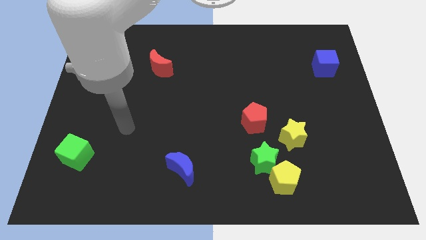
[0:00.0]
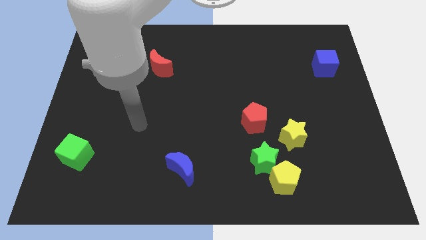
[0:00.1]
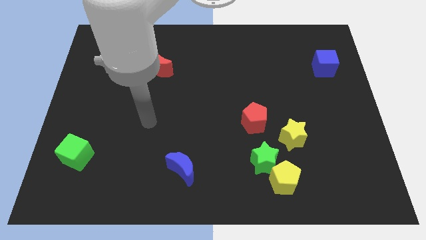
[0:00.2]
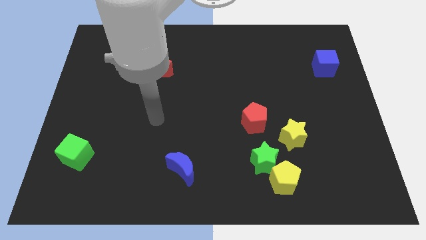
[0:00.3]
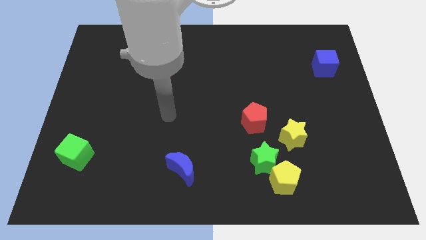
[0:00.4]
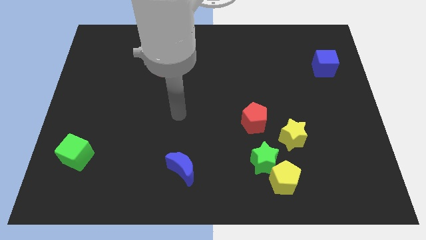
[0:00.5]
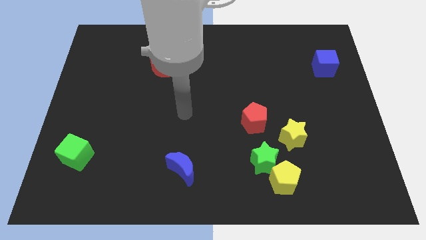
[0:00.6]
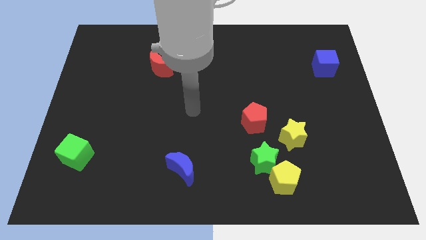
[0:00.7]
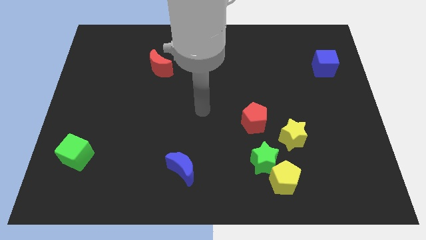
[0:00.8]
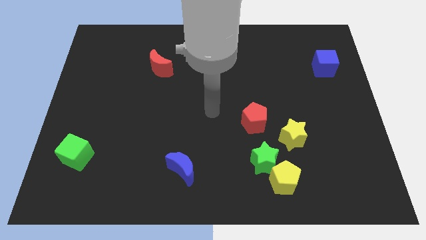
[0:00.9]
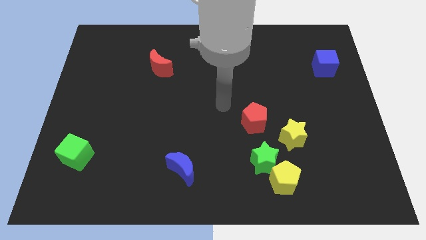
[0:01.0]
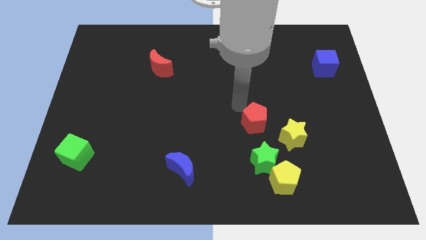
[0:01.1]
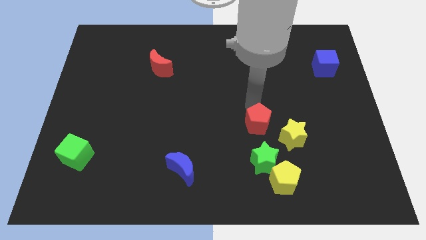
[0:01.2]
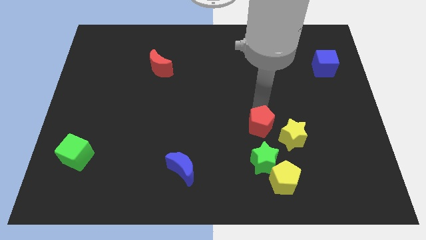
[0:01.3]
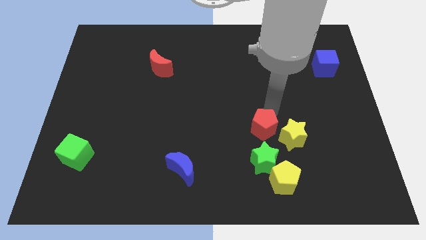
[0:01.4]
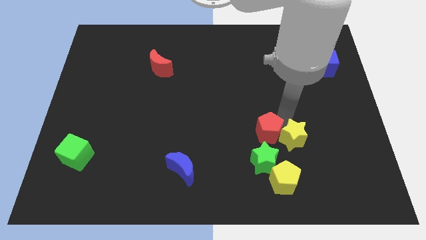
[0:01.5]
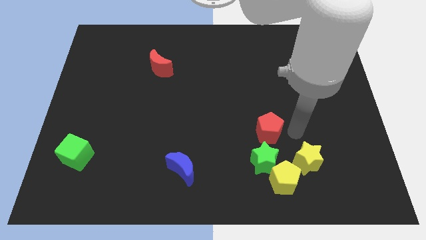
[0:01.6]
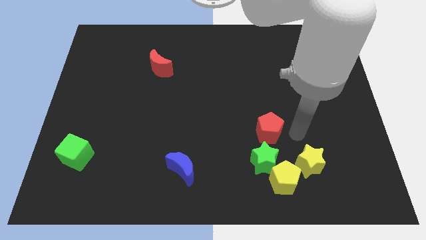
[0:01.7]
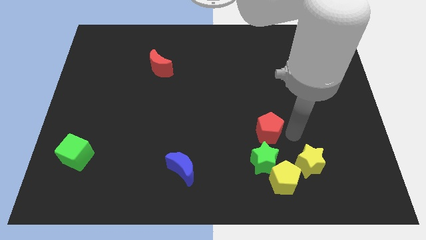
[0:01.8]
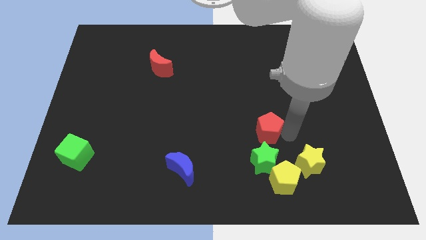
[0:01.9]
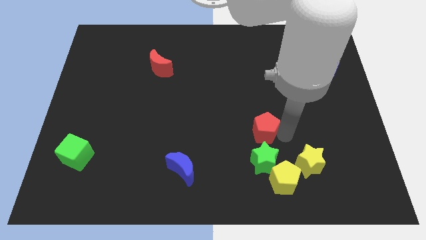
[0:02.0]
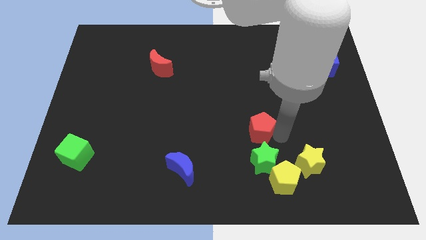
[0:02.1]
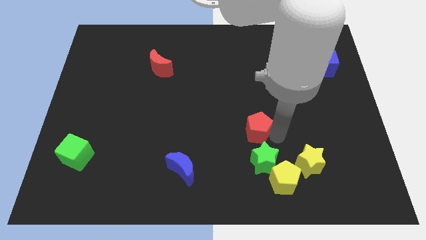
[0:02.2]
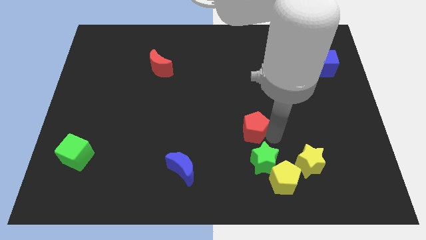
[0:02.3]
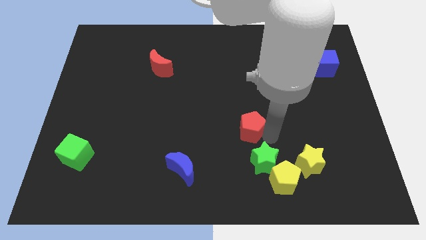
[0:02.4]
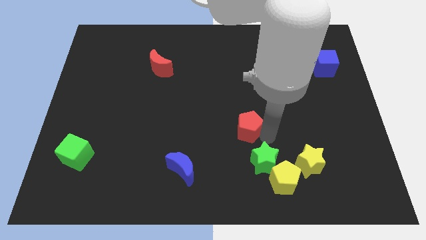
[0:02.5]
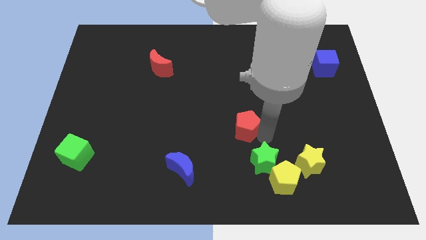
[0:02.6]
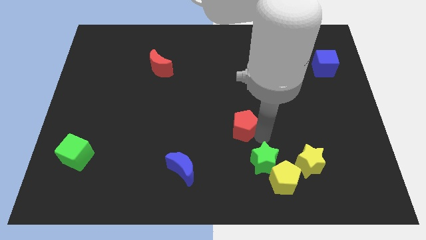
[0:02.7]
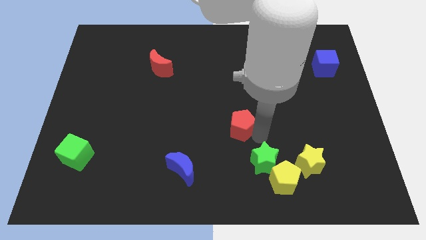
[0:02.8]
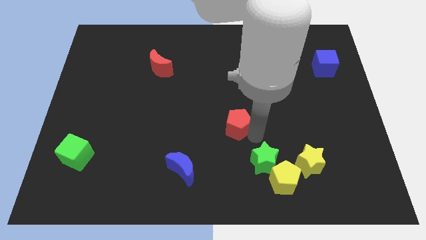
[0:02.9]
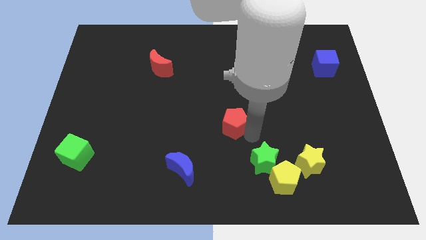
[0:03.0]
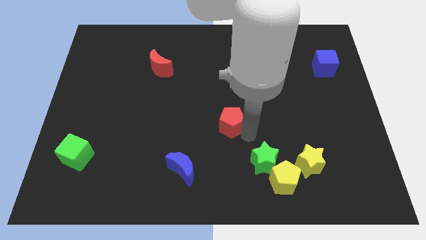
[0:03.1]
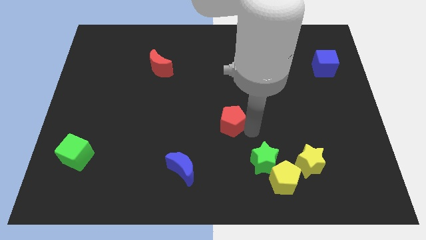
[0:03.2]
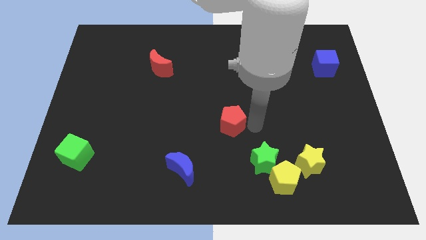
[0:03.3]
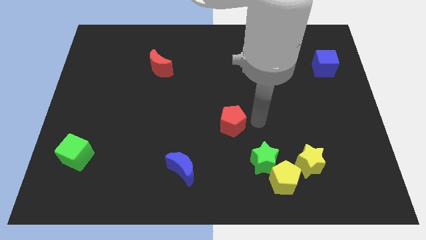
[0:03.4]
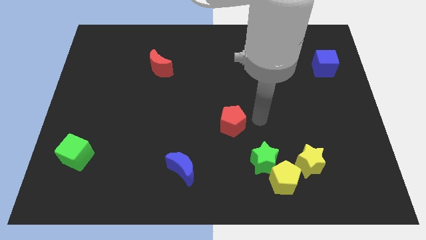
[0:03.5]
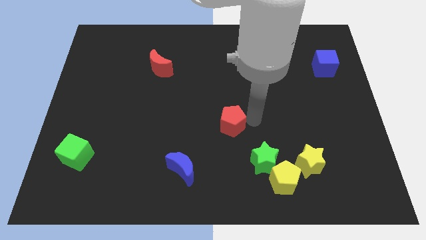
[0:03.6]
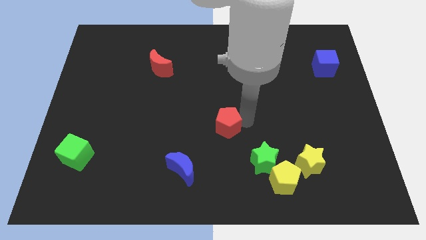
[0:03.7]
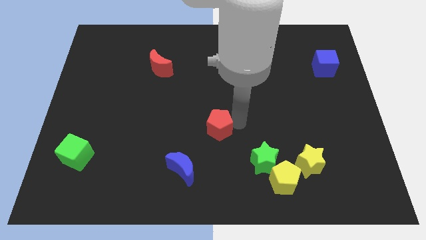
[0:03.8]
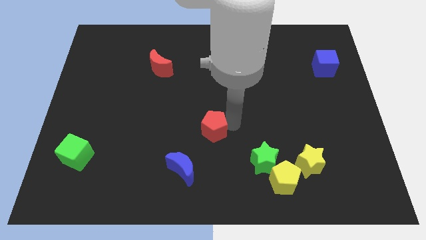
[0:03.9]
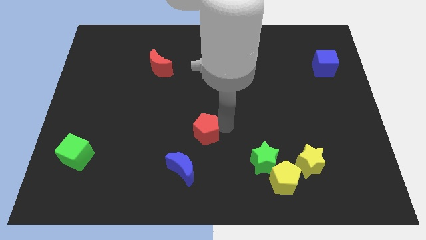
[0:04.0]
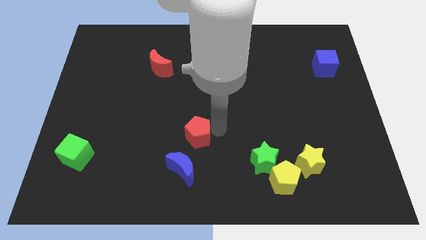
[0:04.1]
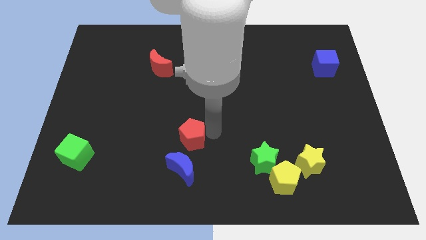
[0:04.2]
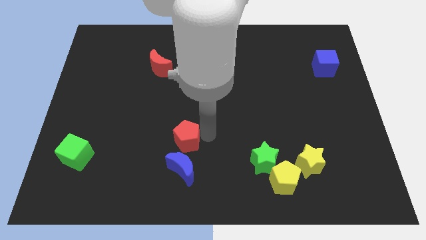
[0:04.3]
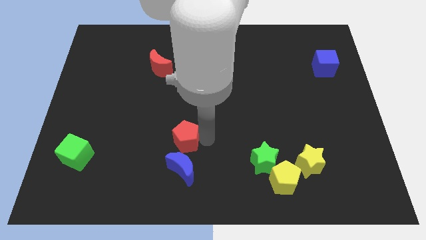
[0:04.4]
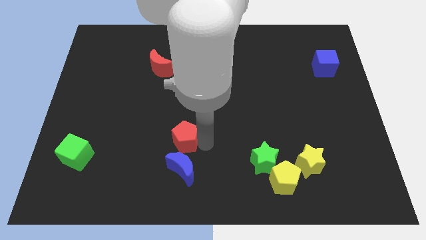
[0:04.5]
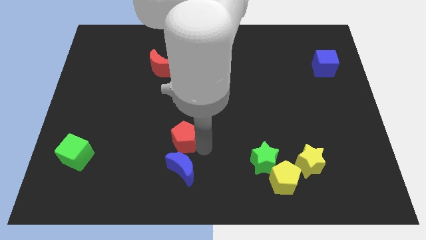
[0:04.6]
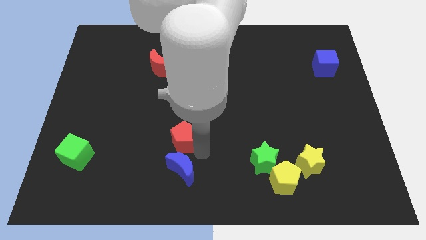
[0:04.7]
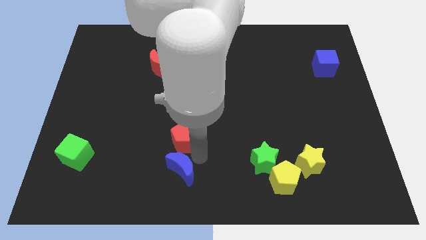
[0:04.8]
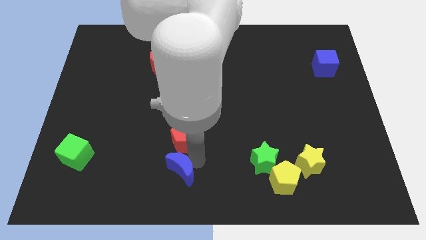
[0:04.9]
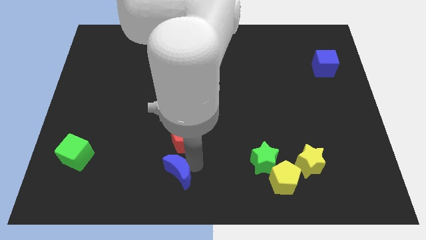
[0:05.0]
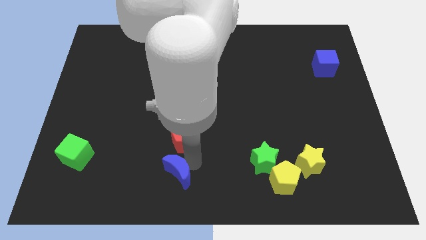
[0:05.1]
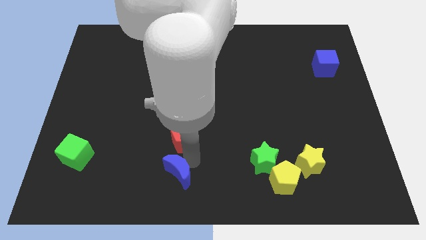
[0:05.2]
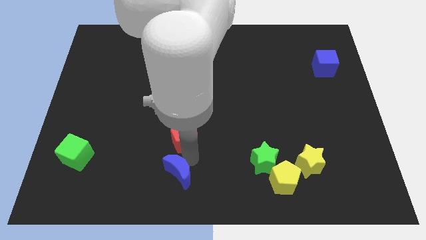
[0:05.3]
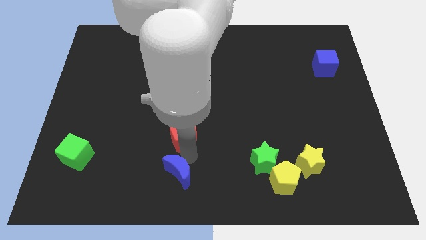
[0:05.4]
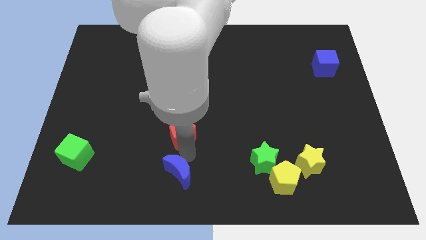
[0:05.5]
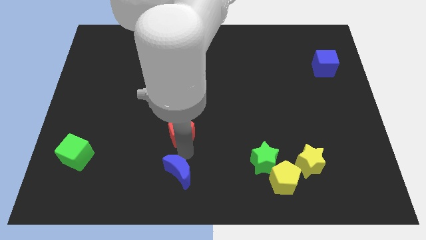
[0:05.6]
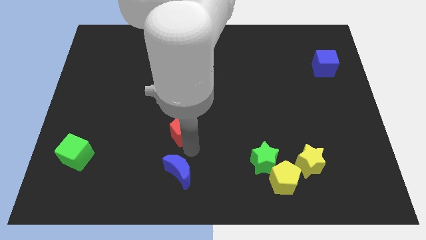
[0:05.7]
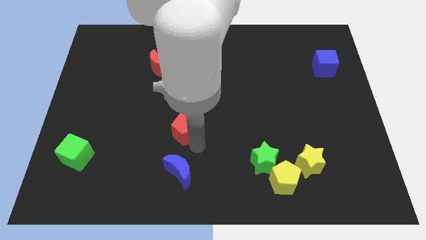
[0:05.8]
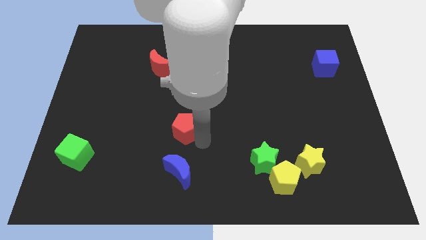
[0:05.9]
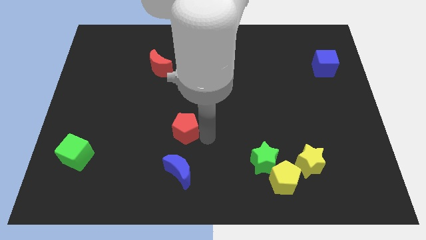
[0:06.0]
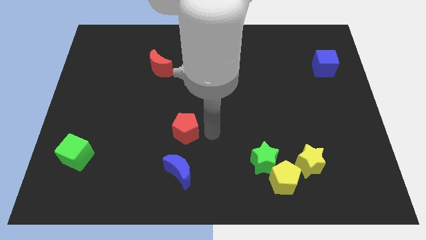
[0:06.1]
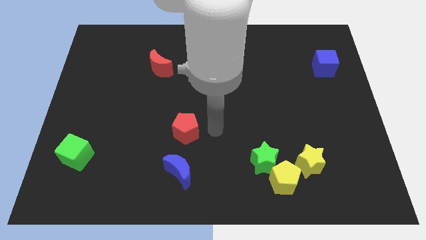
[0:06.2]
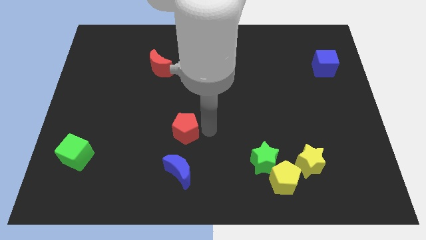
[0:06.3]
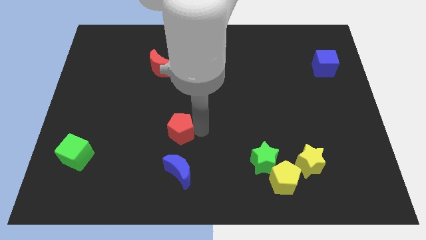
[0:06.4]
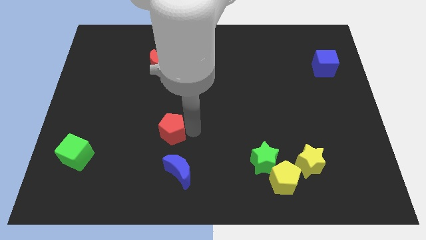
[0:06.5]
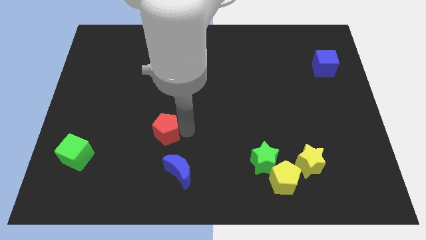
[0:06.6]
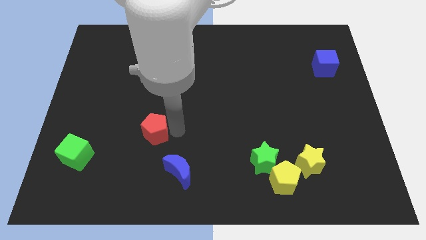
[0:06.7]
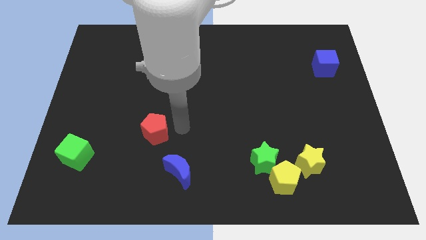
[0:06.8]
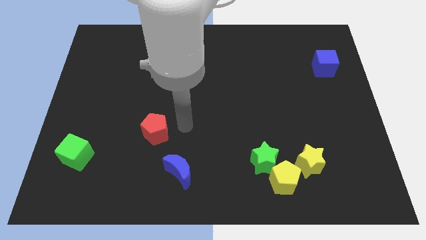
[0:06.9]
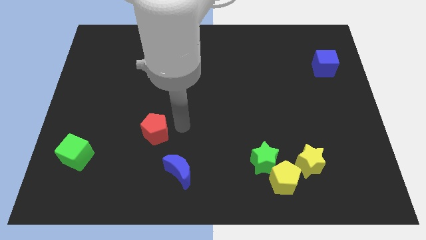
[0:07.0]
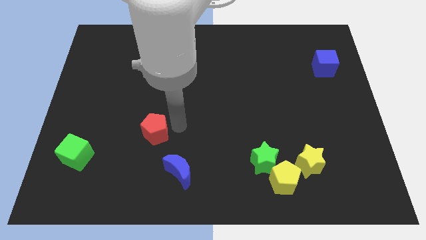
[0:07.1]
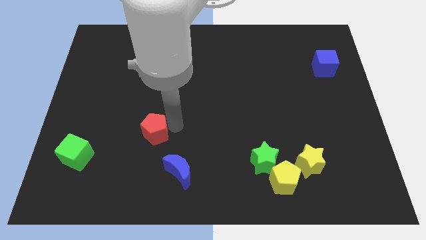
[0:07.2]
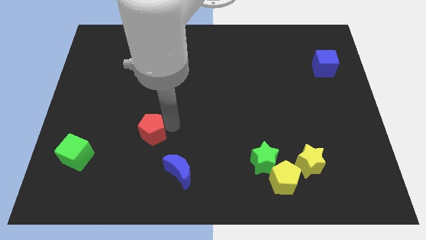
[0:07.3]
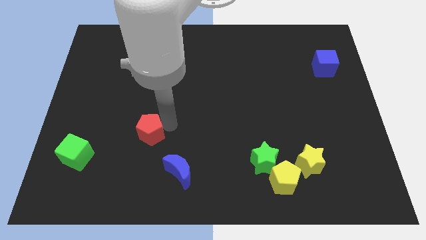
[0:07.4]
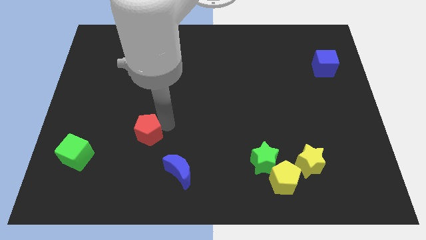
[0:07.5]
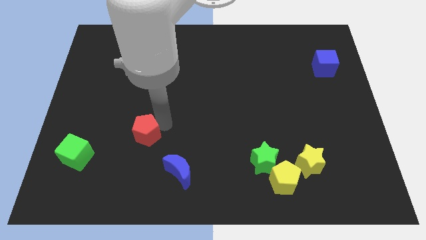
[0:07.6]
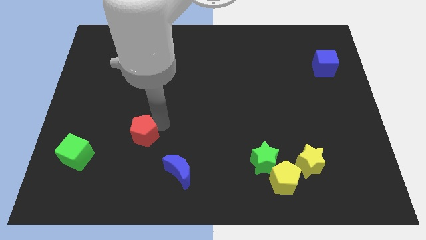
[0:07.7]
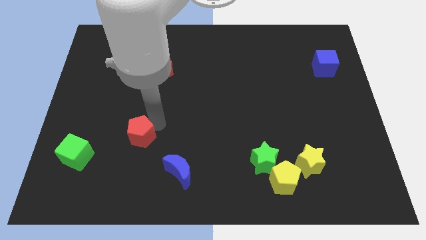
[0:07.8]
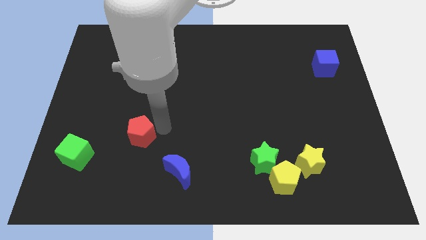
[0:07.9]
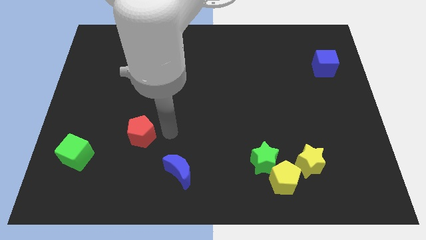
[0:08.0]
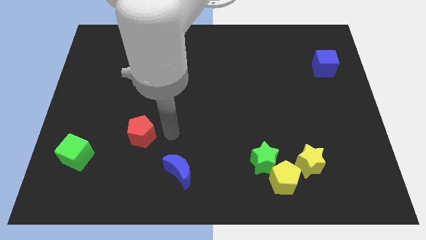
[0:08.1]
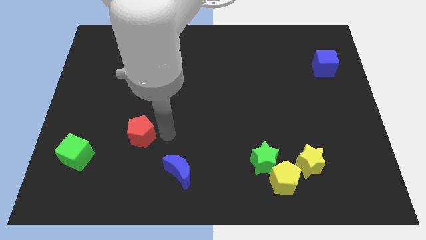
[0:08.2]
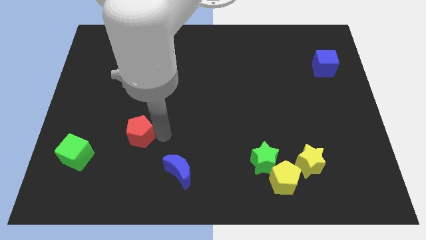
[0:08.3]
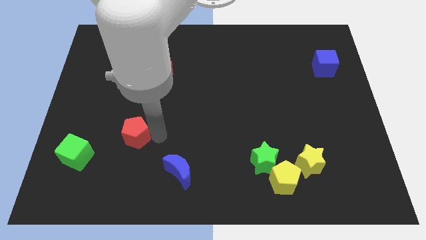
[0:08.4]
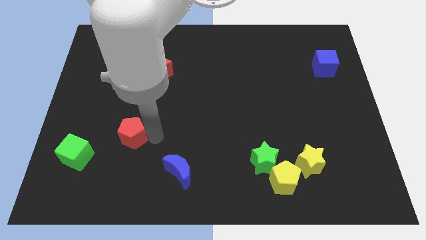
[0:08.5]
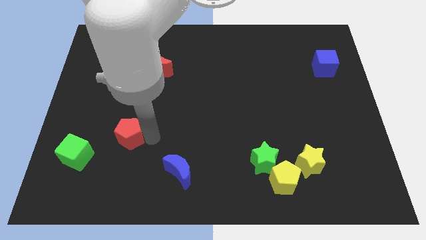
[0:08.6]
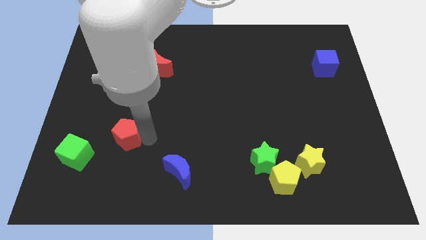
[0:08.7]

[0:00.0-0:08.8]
move the red pentagon to the top right of the green cube
